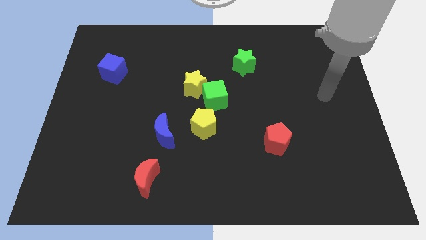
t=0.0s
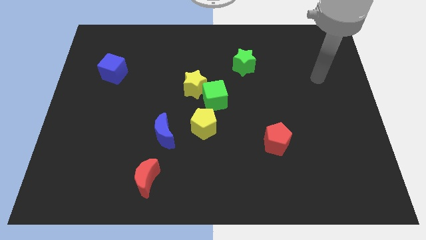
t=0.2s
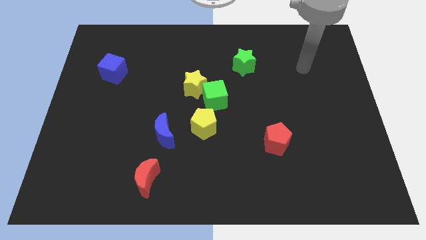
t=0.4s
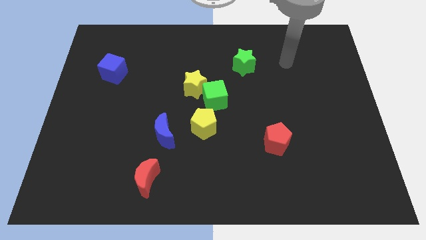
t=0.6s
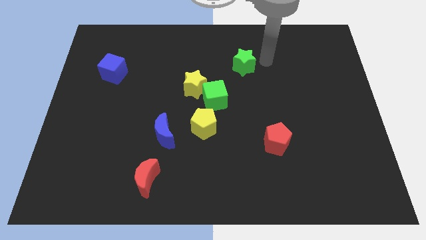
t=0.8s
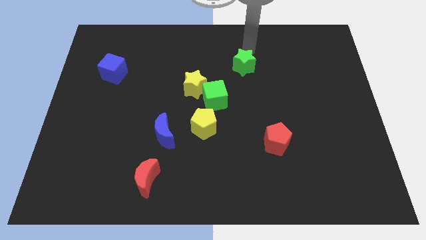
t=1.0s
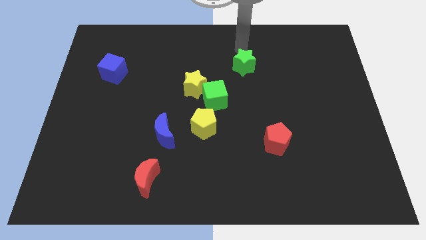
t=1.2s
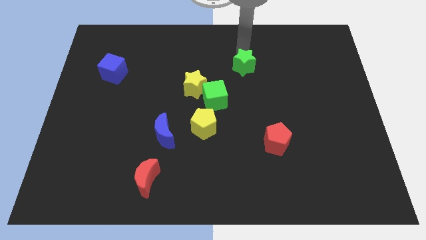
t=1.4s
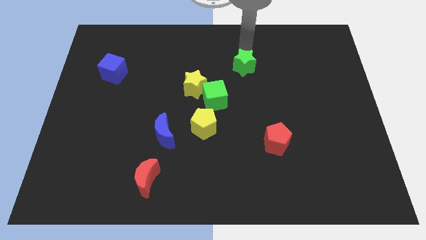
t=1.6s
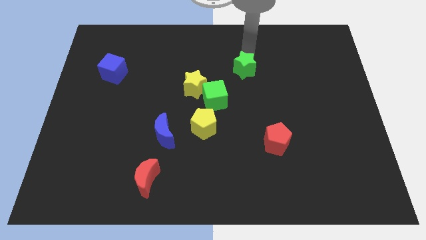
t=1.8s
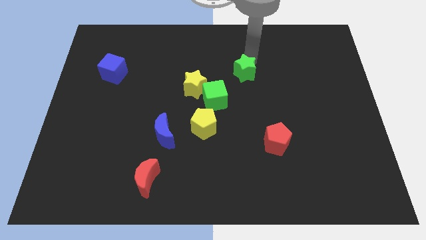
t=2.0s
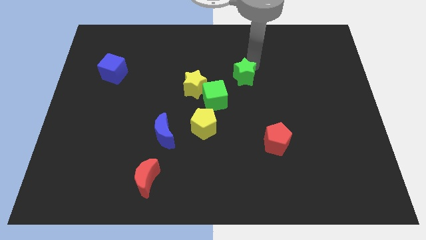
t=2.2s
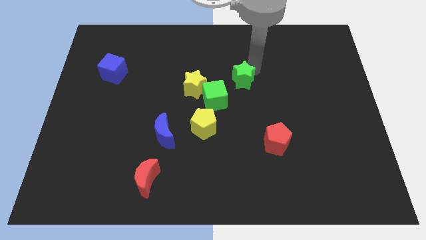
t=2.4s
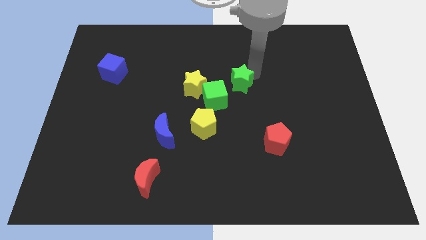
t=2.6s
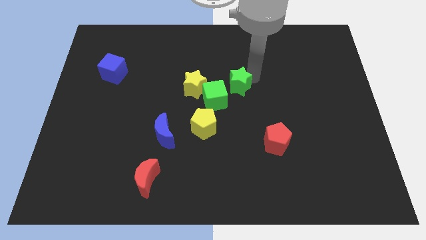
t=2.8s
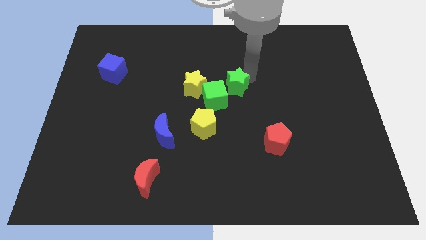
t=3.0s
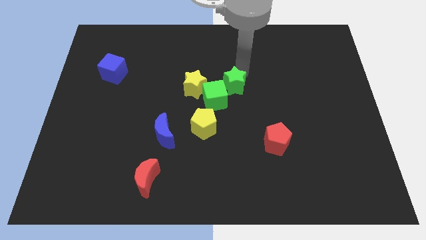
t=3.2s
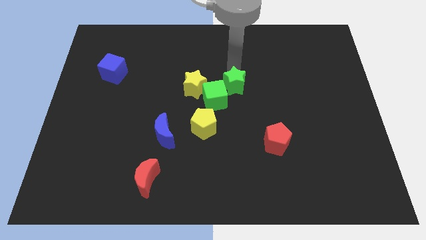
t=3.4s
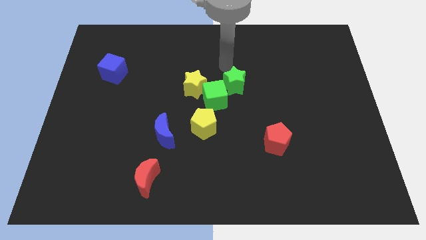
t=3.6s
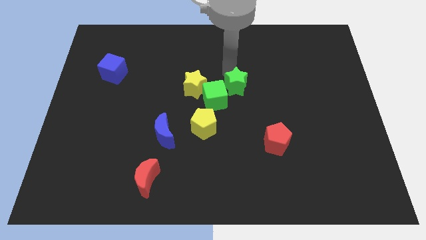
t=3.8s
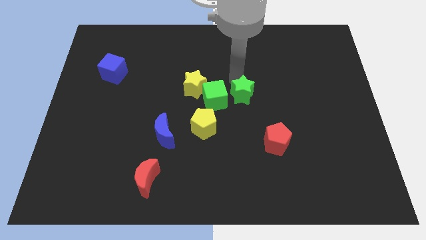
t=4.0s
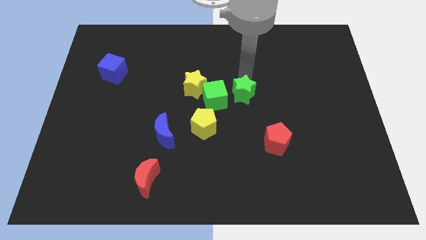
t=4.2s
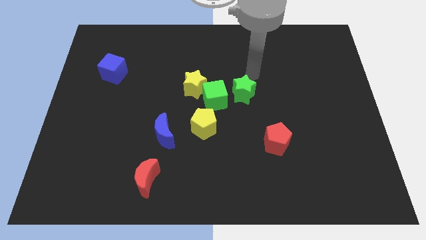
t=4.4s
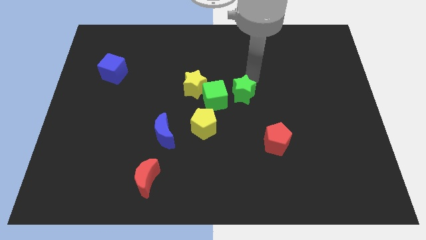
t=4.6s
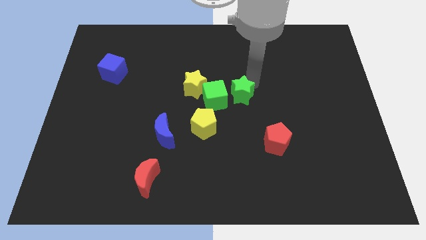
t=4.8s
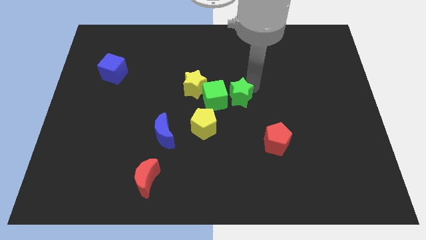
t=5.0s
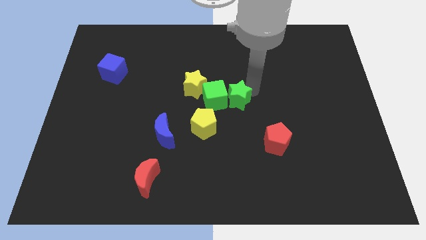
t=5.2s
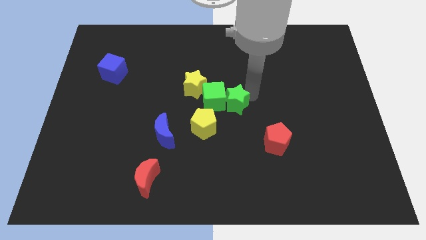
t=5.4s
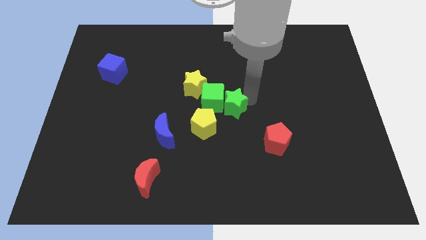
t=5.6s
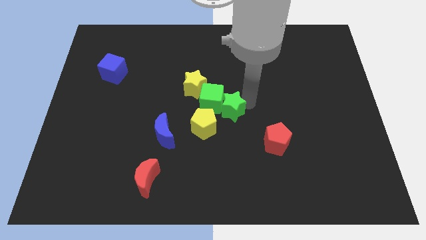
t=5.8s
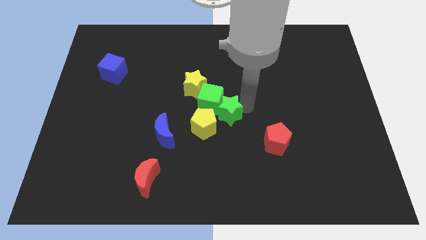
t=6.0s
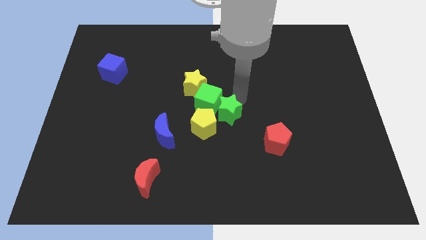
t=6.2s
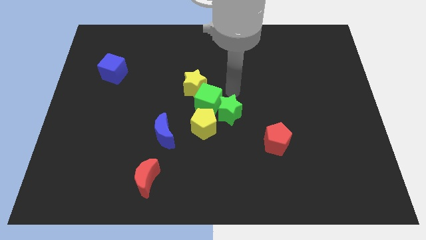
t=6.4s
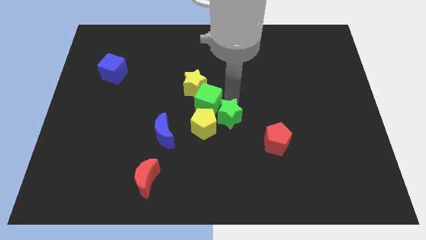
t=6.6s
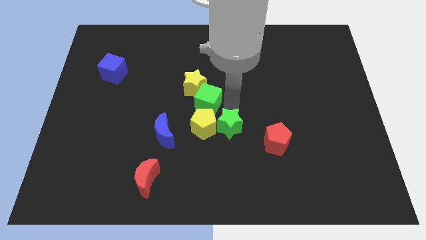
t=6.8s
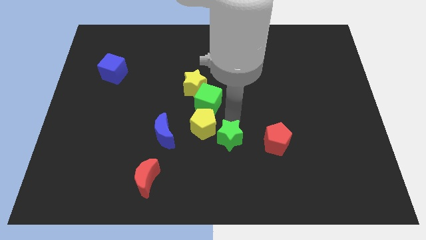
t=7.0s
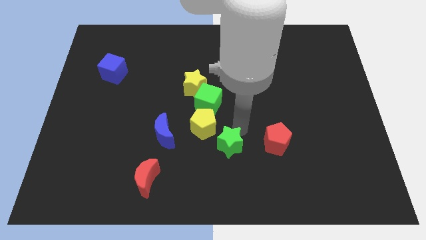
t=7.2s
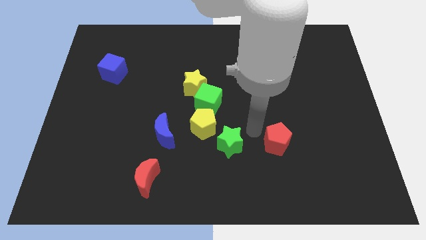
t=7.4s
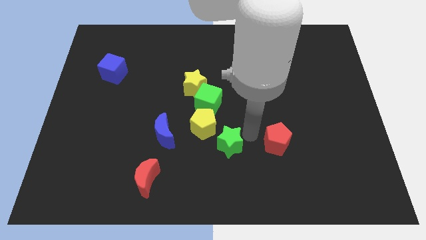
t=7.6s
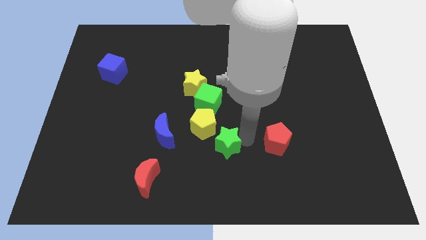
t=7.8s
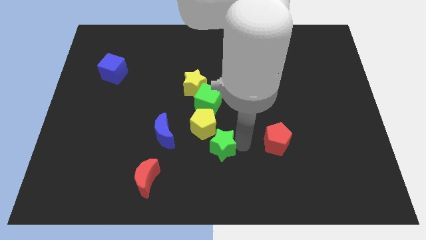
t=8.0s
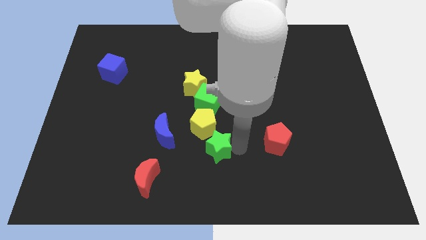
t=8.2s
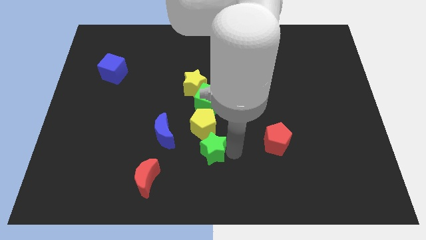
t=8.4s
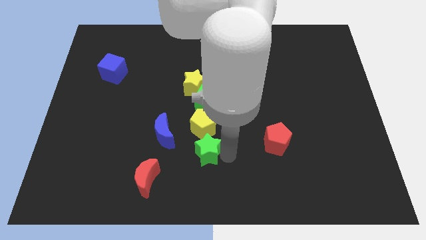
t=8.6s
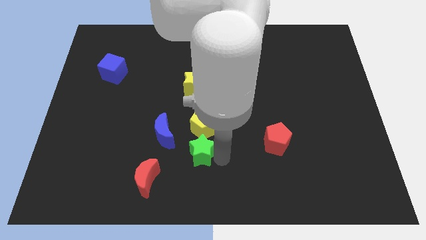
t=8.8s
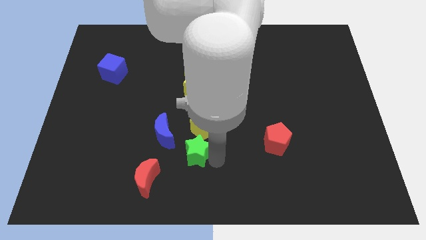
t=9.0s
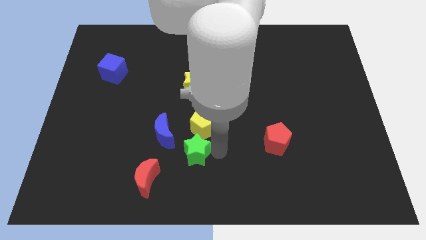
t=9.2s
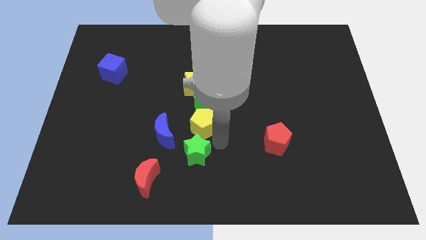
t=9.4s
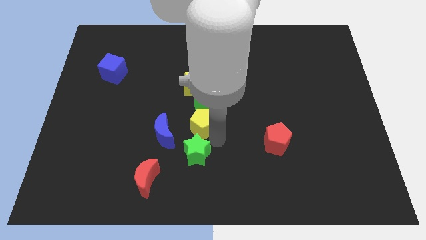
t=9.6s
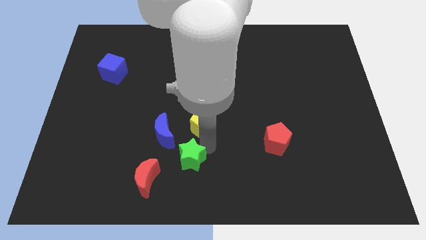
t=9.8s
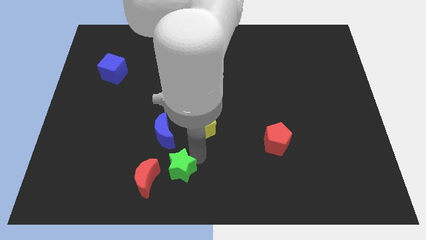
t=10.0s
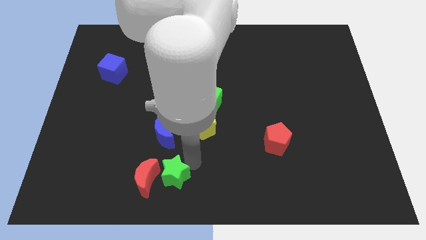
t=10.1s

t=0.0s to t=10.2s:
slide the green star next to the red moon

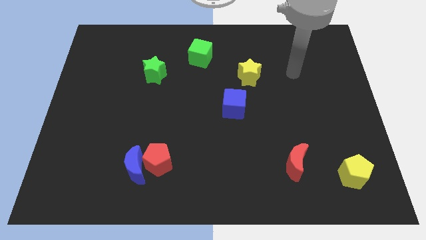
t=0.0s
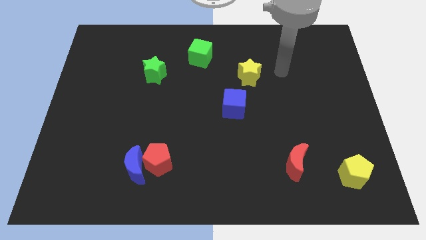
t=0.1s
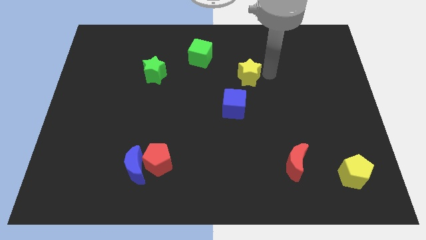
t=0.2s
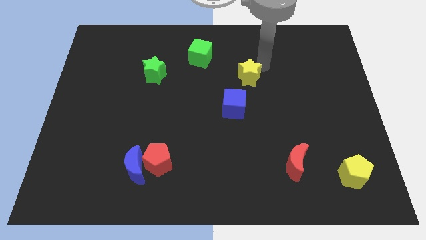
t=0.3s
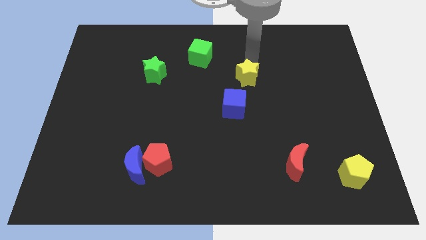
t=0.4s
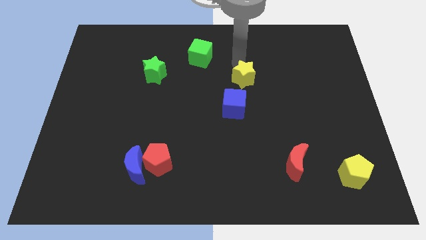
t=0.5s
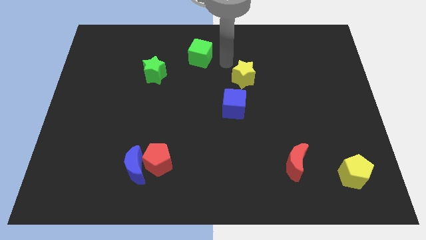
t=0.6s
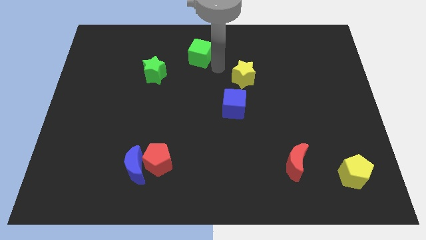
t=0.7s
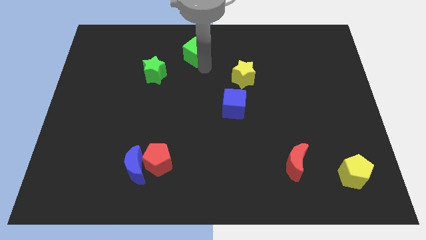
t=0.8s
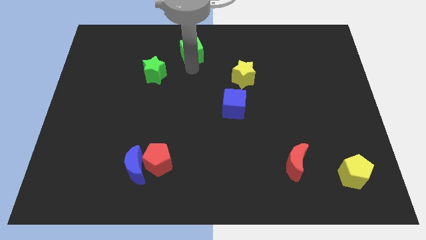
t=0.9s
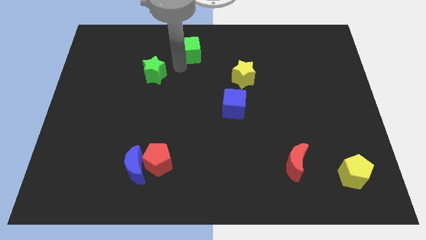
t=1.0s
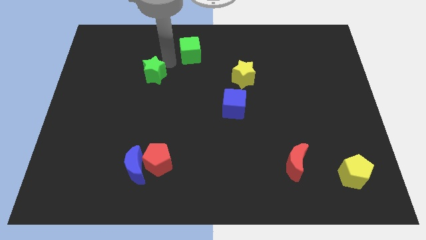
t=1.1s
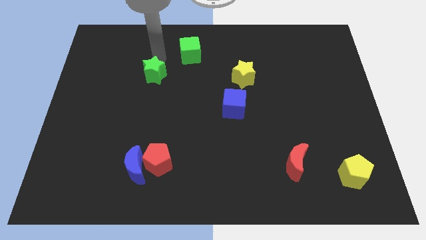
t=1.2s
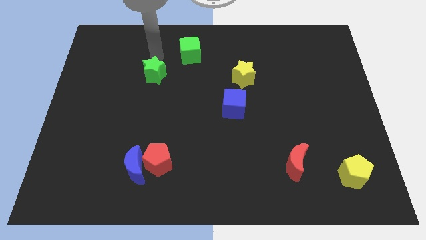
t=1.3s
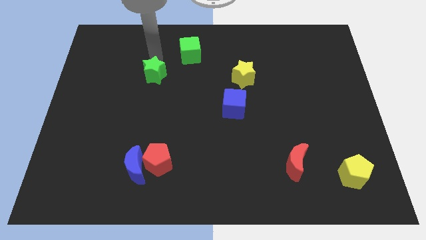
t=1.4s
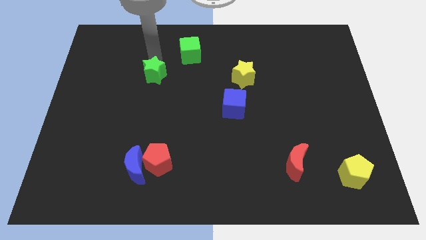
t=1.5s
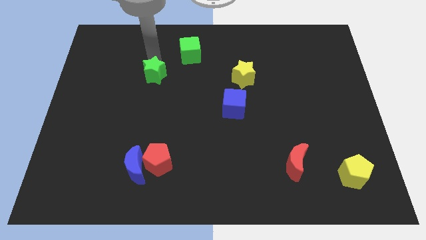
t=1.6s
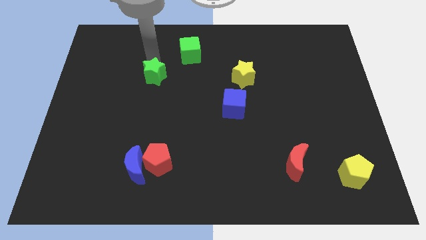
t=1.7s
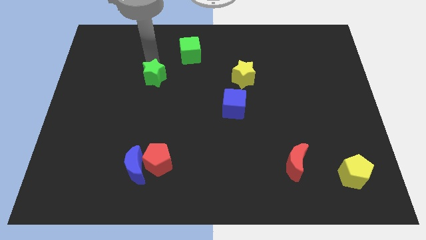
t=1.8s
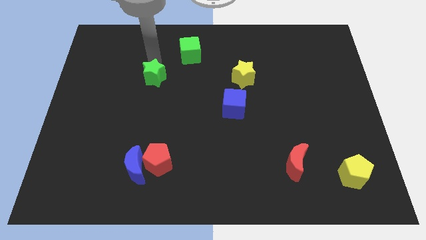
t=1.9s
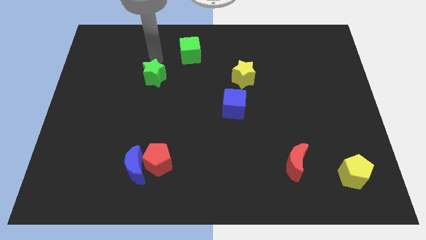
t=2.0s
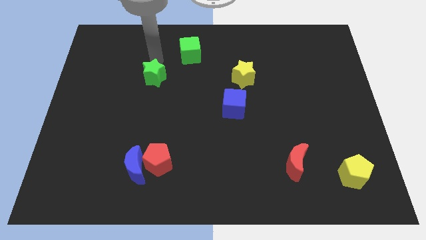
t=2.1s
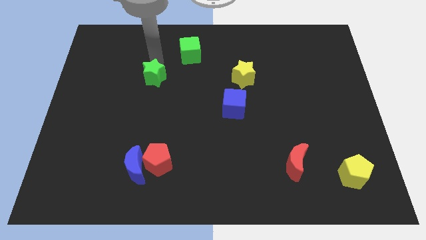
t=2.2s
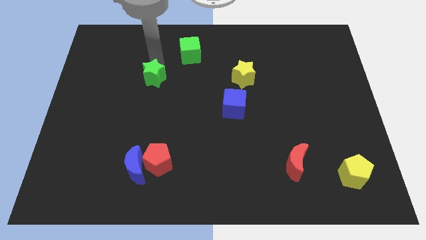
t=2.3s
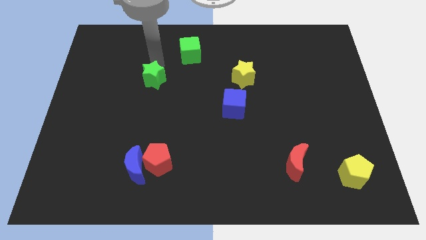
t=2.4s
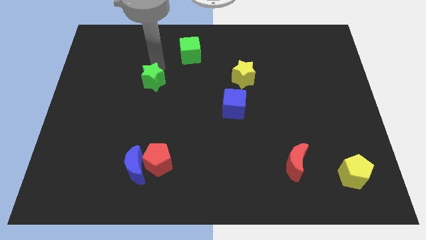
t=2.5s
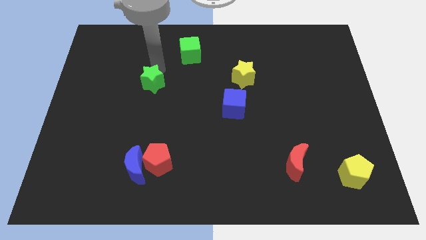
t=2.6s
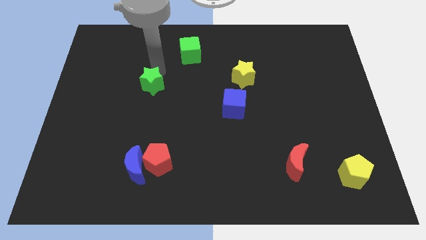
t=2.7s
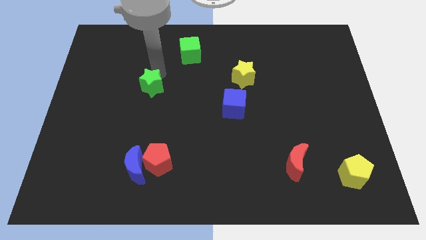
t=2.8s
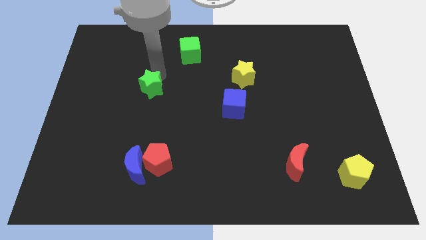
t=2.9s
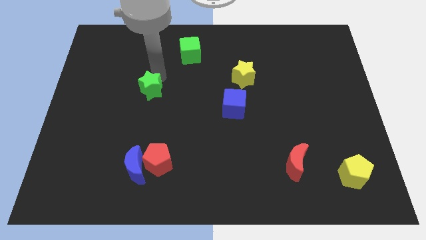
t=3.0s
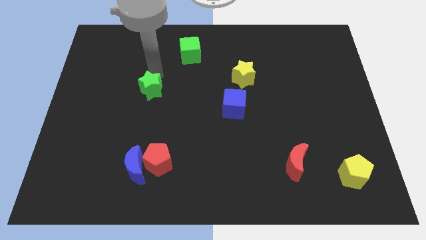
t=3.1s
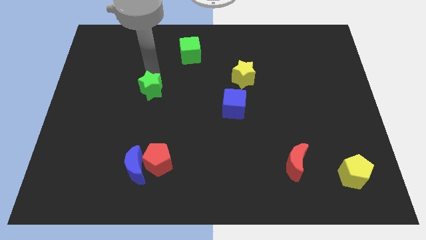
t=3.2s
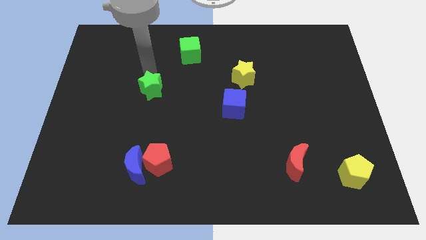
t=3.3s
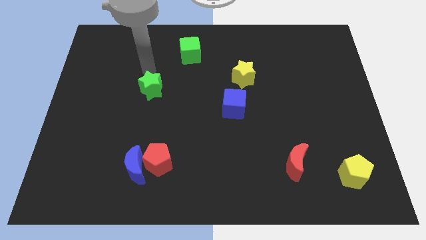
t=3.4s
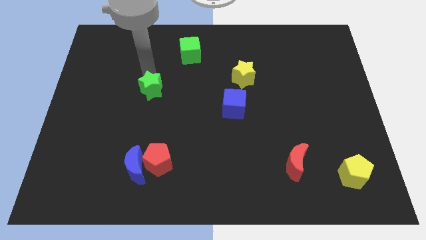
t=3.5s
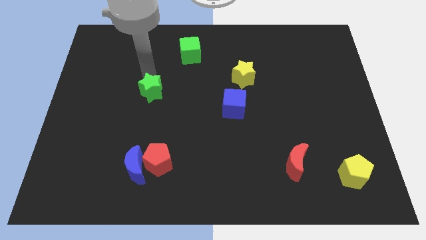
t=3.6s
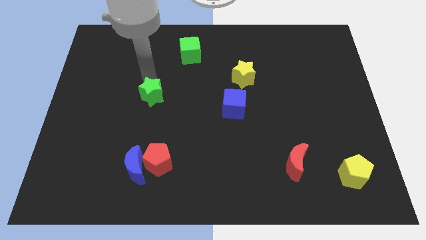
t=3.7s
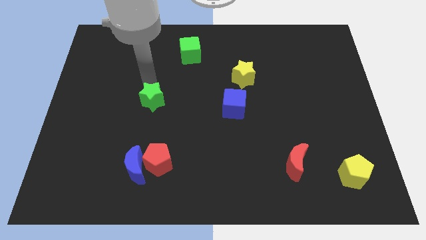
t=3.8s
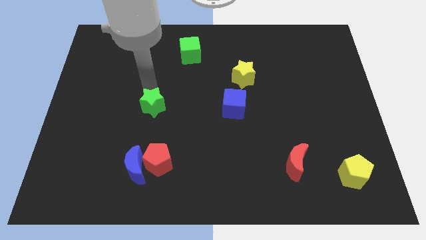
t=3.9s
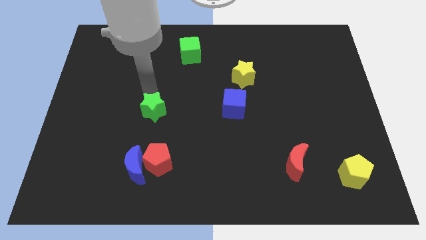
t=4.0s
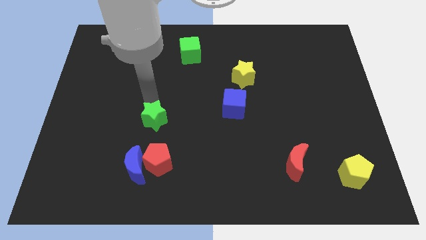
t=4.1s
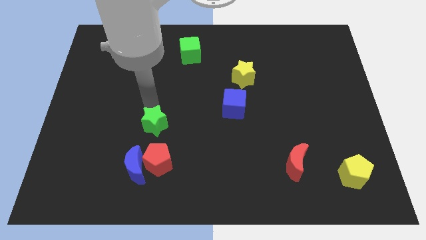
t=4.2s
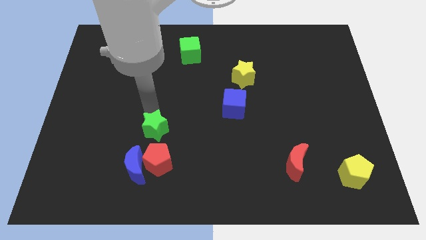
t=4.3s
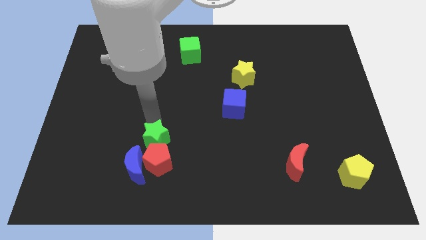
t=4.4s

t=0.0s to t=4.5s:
push the green star to the red pentagon
